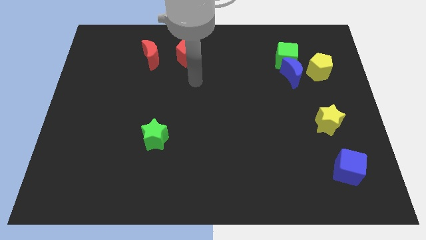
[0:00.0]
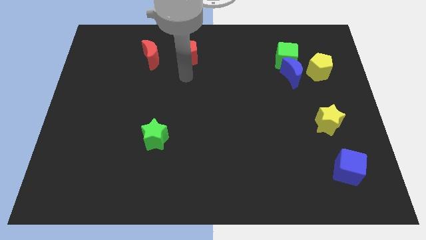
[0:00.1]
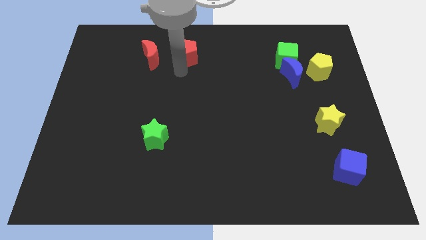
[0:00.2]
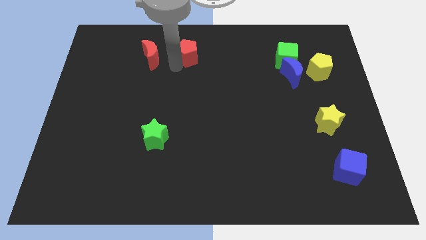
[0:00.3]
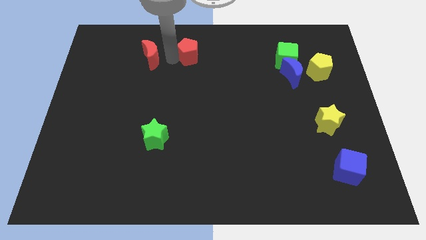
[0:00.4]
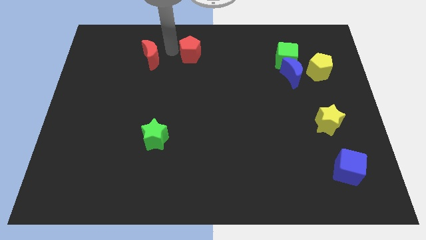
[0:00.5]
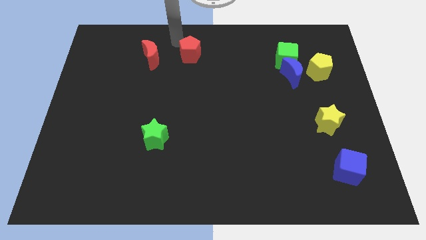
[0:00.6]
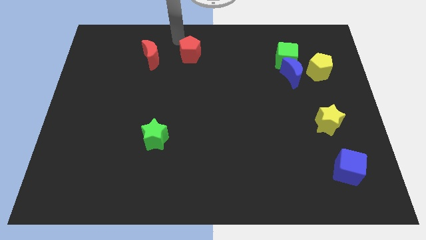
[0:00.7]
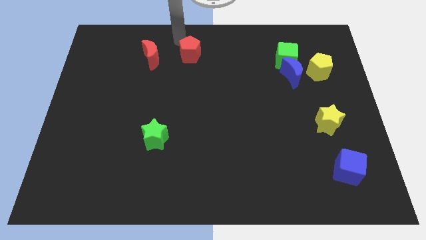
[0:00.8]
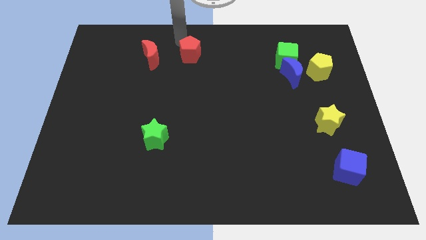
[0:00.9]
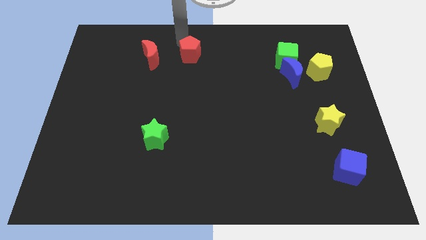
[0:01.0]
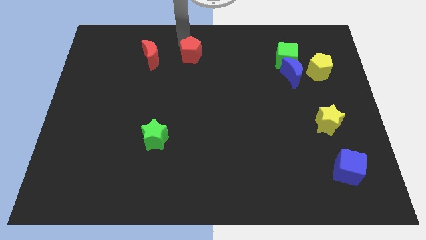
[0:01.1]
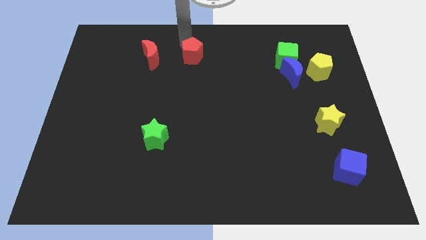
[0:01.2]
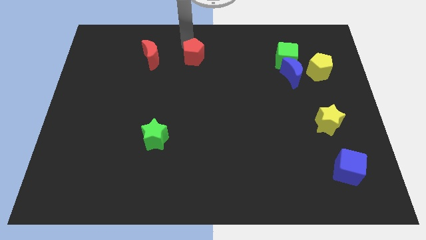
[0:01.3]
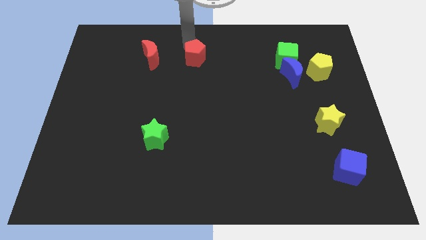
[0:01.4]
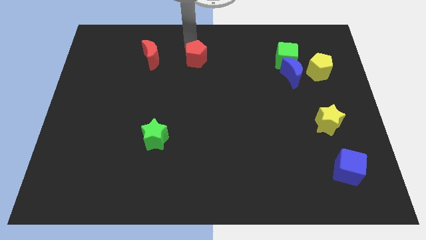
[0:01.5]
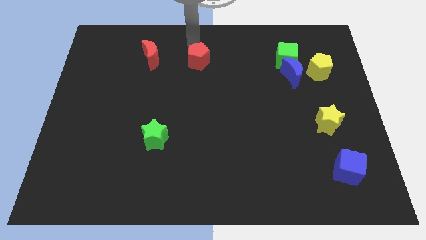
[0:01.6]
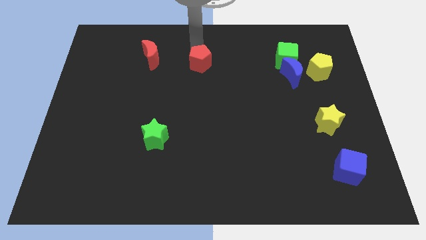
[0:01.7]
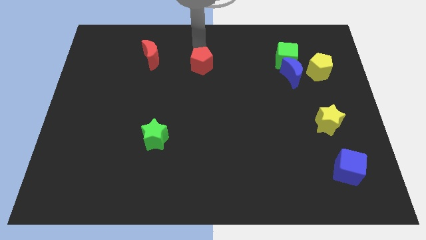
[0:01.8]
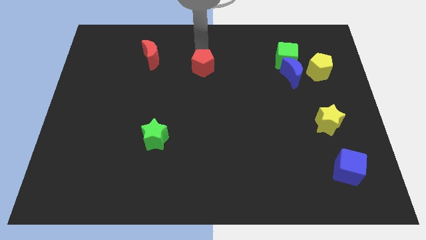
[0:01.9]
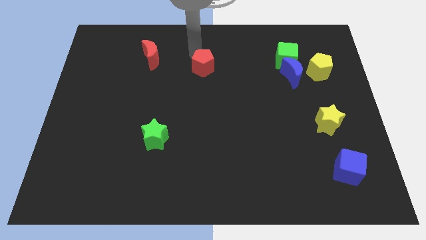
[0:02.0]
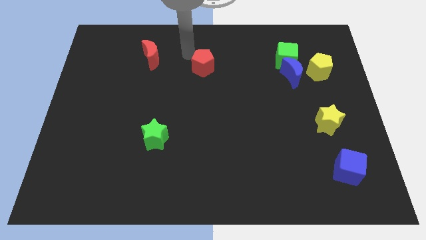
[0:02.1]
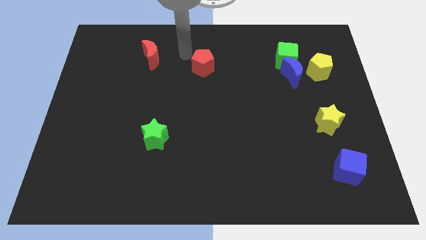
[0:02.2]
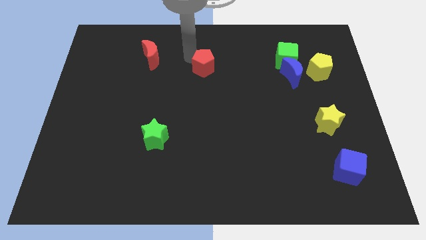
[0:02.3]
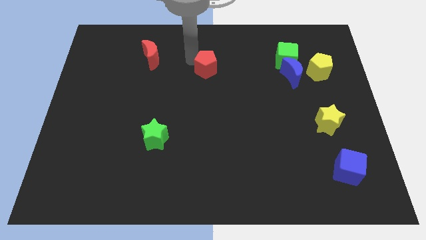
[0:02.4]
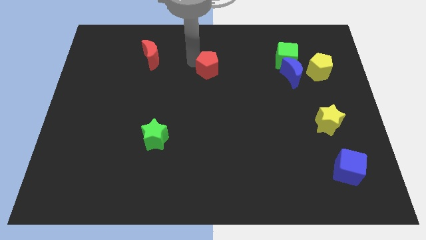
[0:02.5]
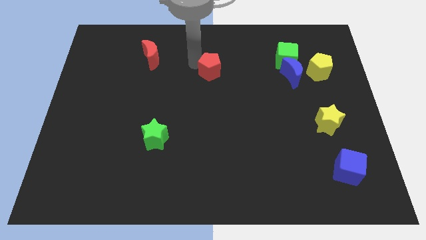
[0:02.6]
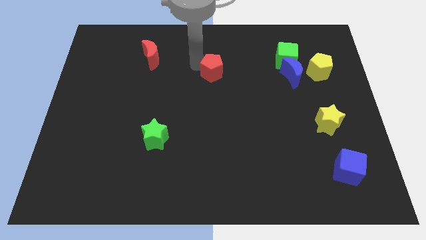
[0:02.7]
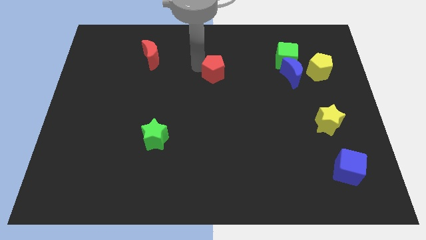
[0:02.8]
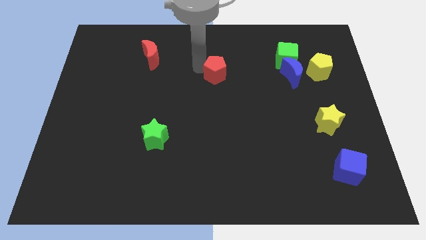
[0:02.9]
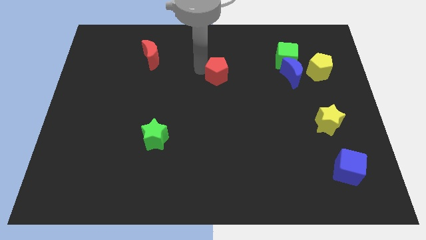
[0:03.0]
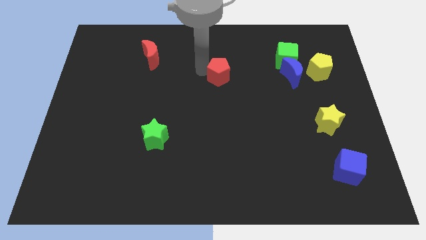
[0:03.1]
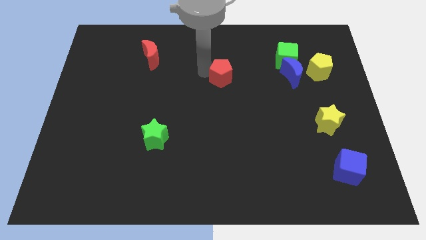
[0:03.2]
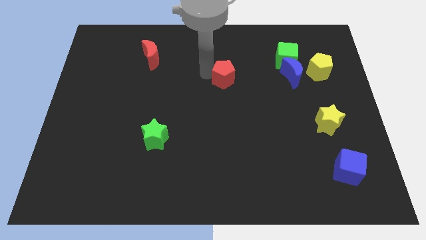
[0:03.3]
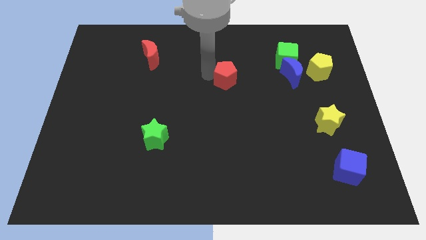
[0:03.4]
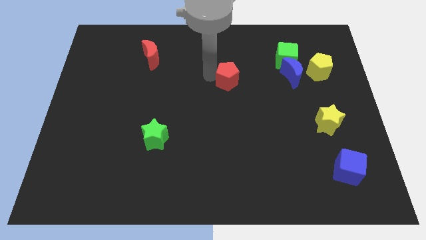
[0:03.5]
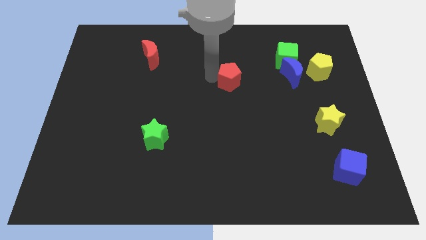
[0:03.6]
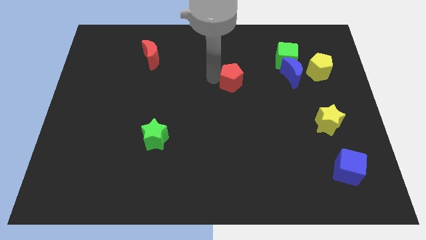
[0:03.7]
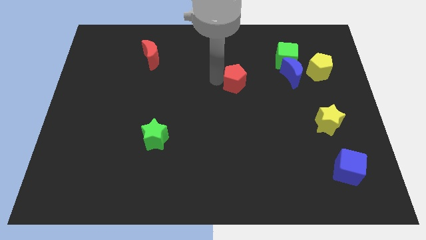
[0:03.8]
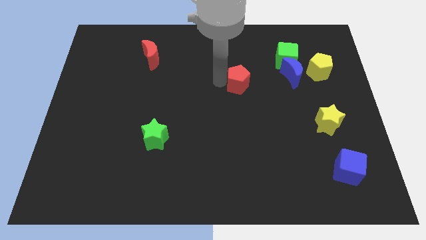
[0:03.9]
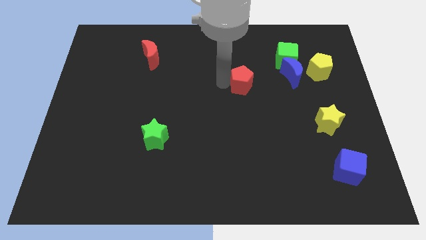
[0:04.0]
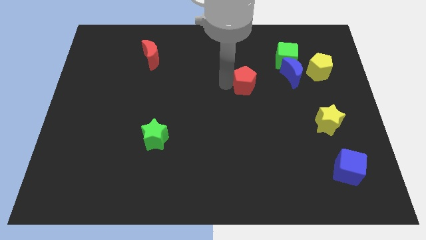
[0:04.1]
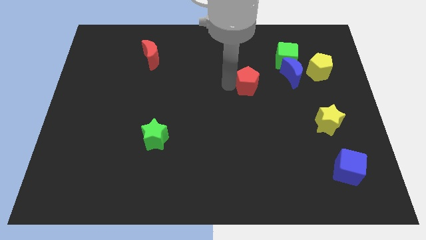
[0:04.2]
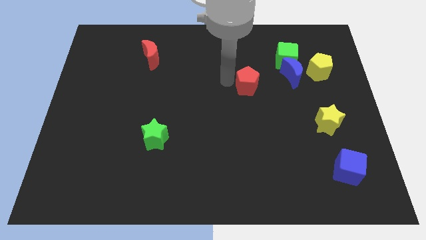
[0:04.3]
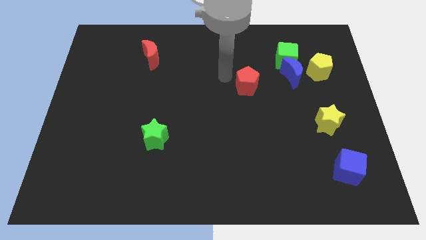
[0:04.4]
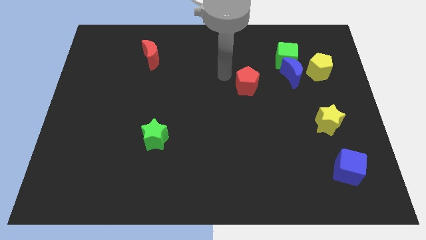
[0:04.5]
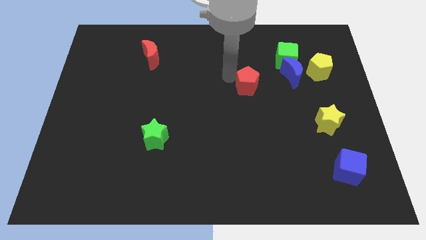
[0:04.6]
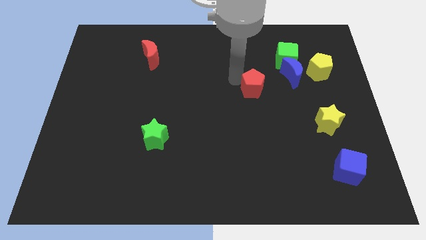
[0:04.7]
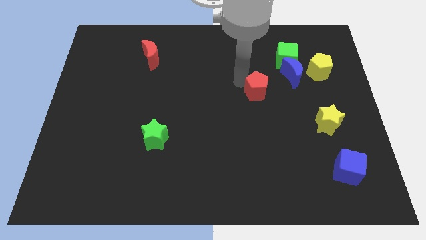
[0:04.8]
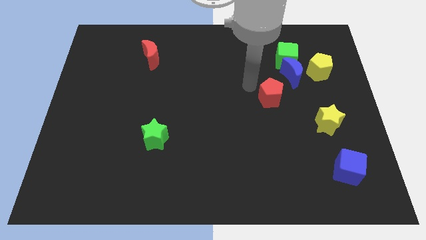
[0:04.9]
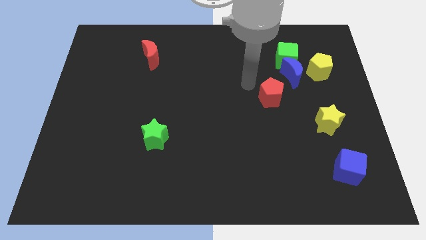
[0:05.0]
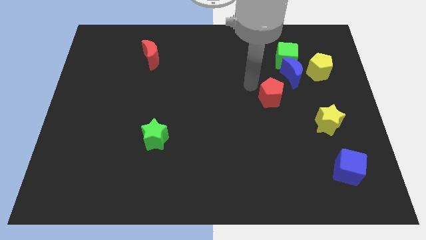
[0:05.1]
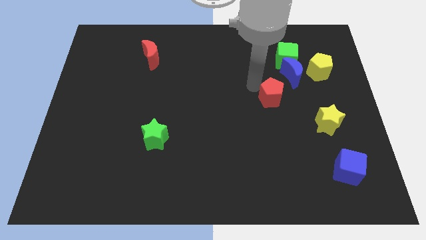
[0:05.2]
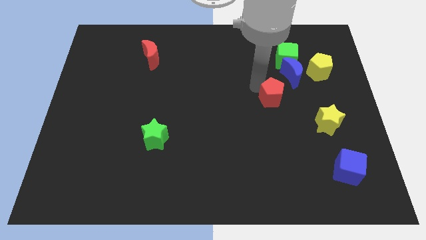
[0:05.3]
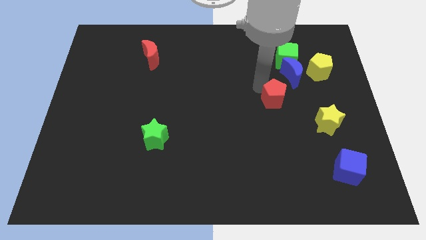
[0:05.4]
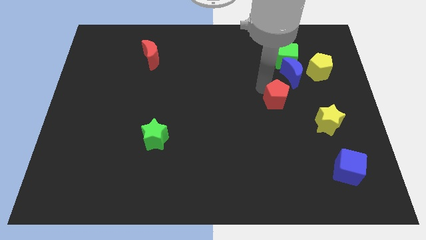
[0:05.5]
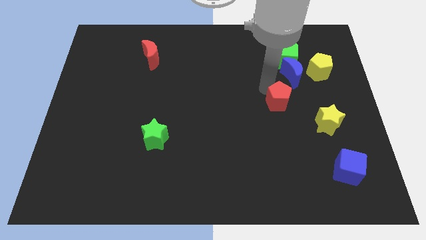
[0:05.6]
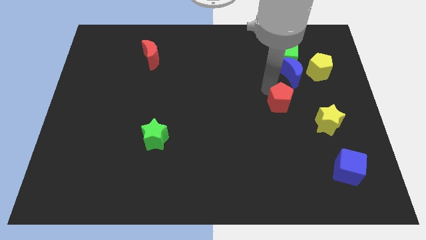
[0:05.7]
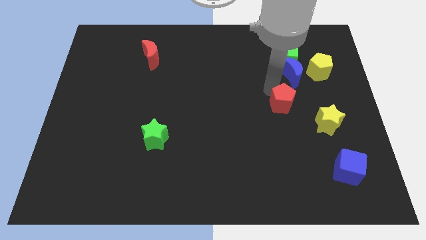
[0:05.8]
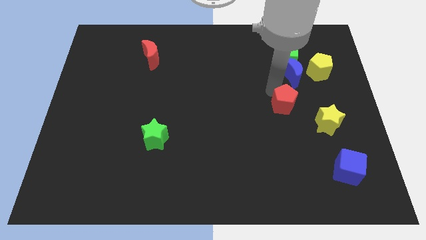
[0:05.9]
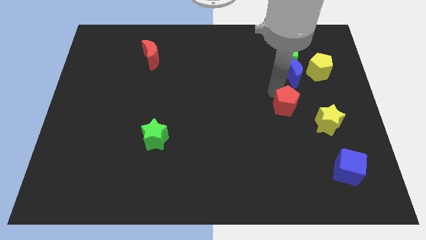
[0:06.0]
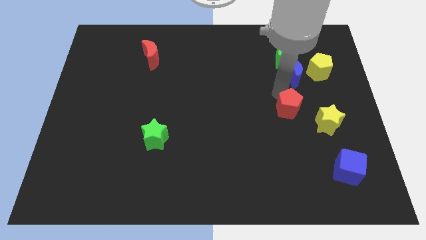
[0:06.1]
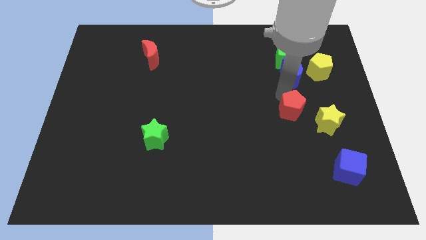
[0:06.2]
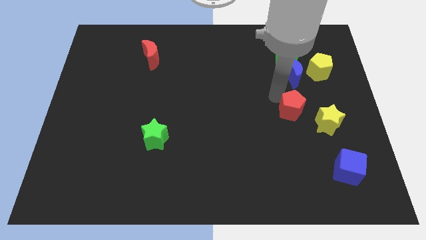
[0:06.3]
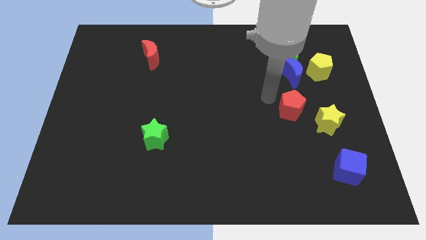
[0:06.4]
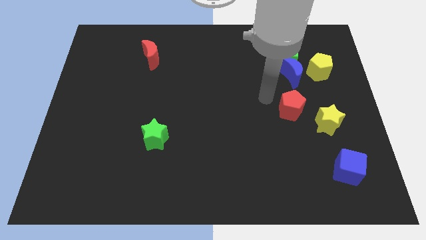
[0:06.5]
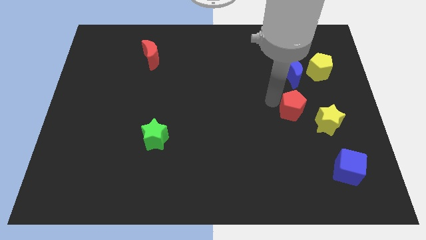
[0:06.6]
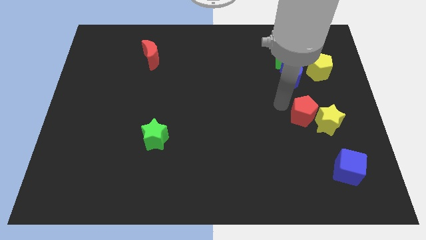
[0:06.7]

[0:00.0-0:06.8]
put the red pentagon close to the yellow star
